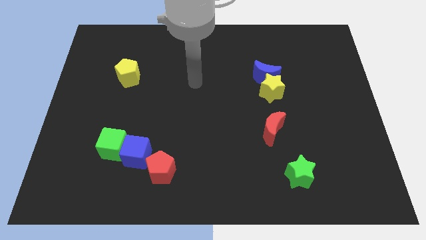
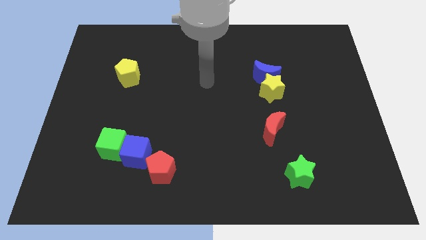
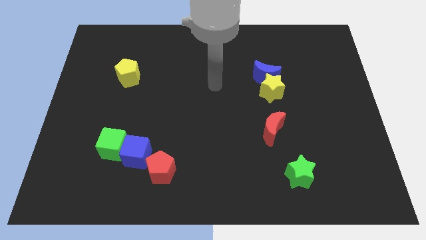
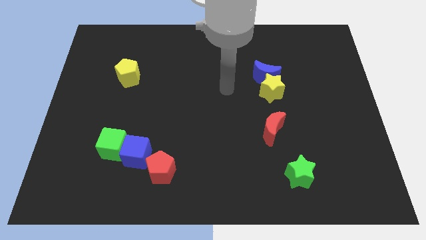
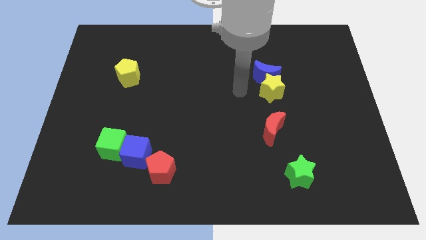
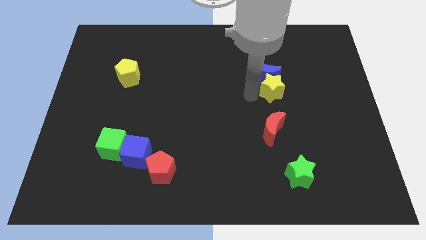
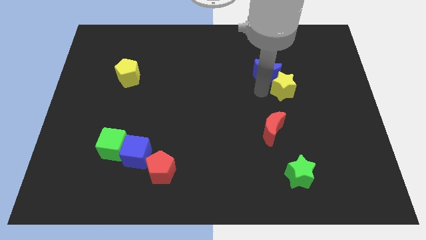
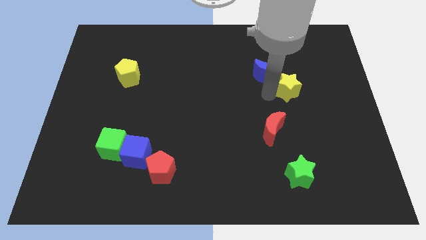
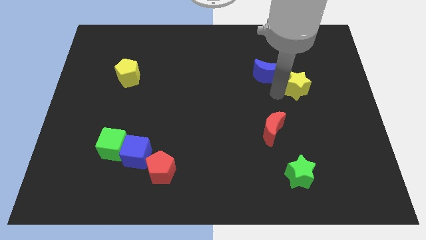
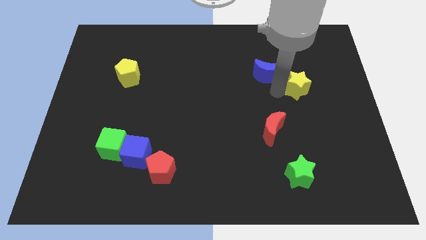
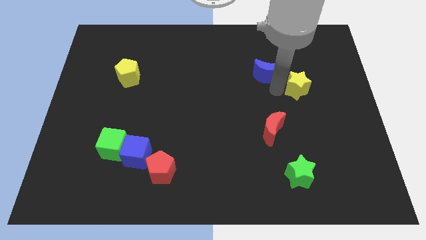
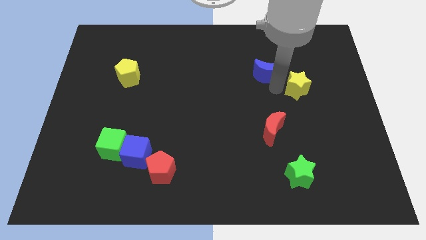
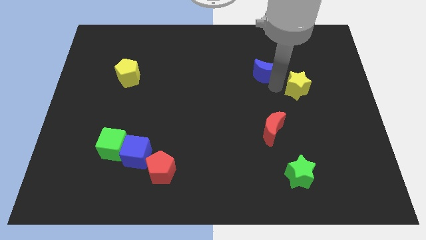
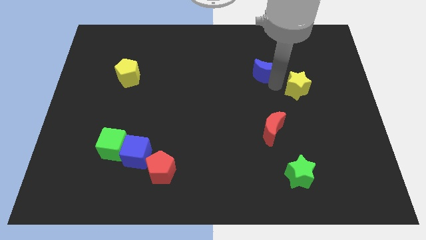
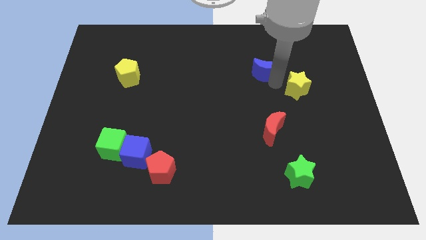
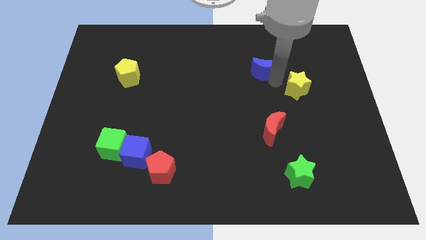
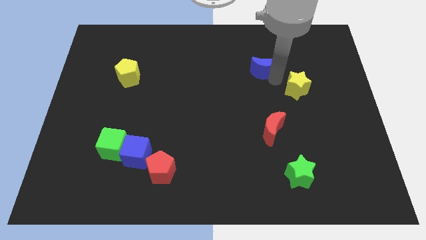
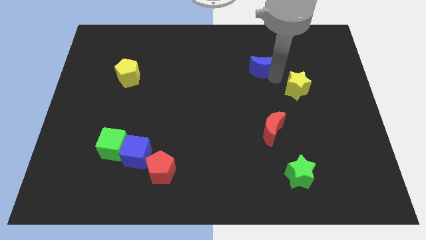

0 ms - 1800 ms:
pull the blue moon apart from the yellow star

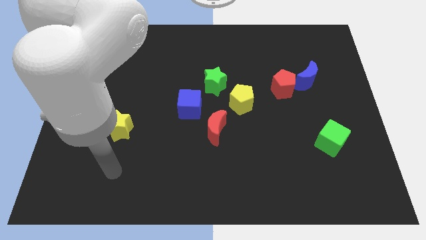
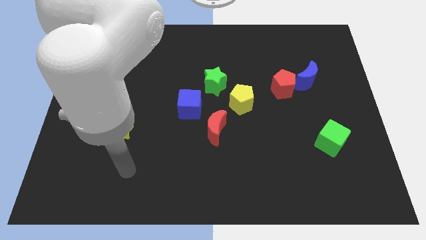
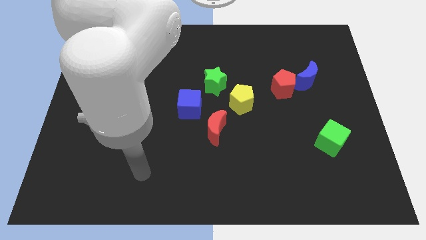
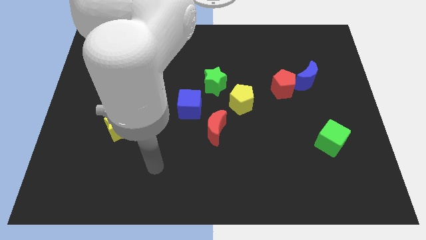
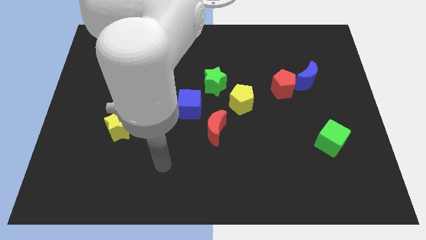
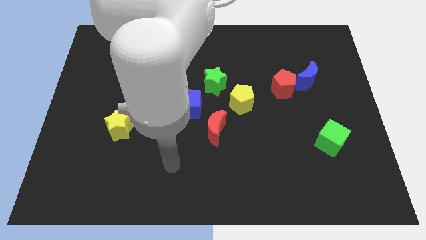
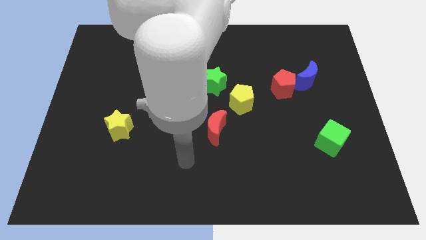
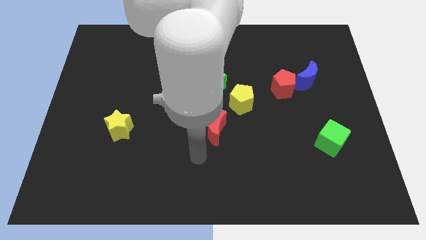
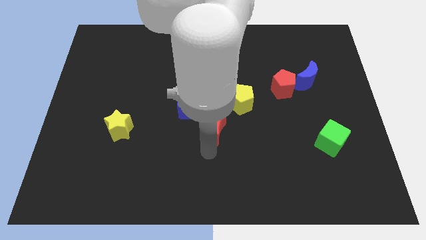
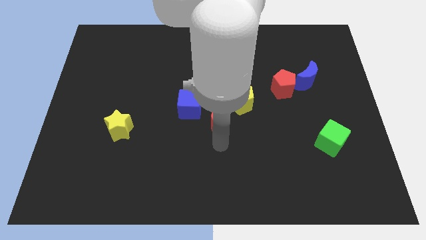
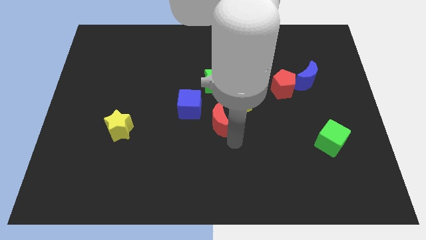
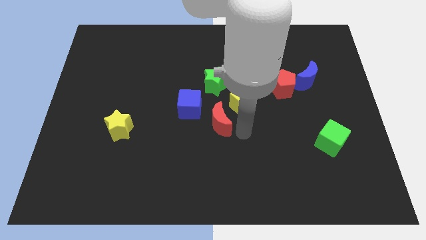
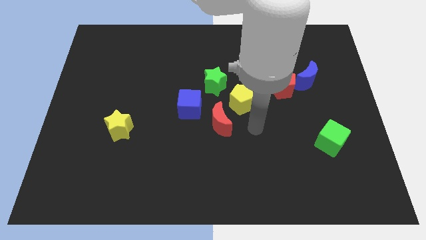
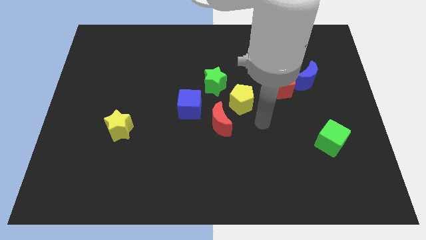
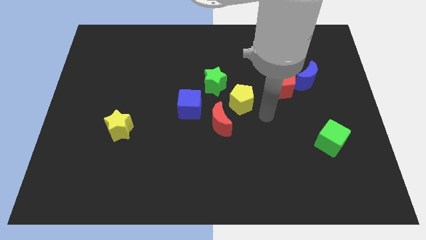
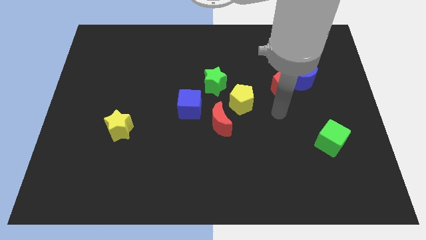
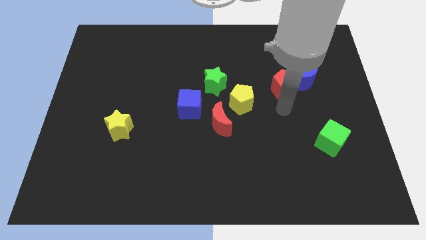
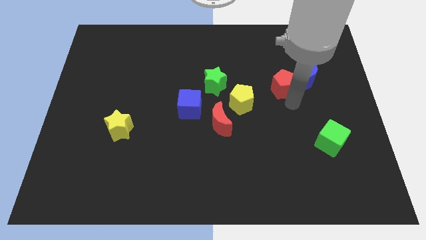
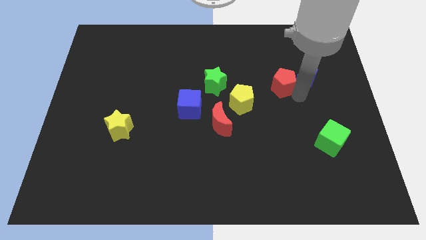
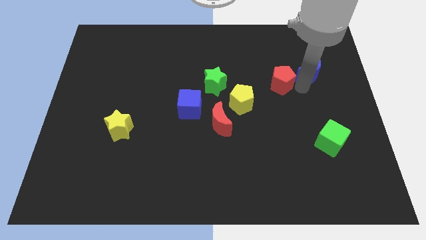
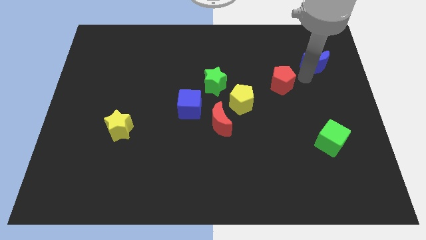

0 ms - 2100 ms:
separate the red pentagon from the blue moon

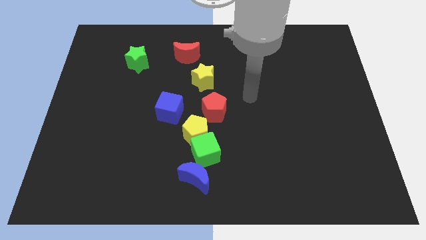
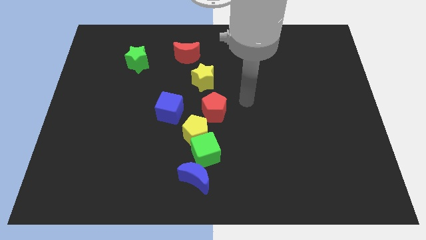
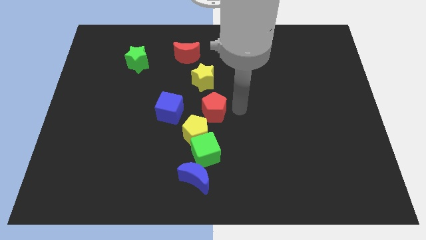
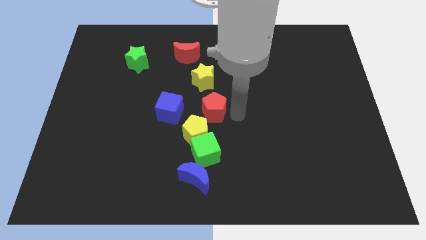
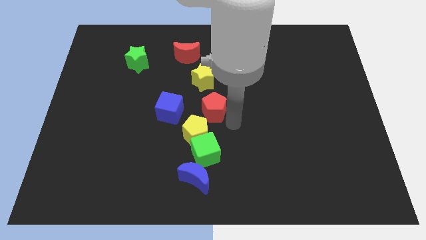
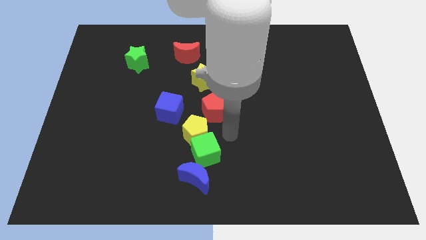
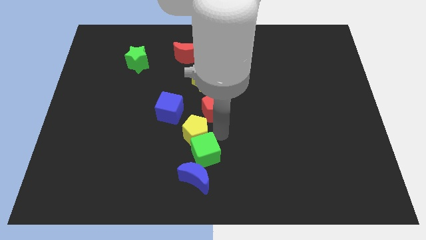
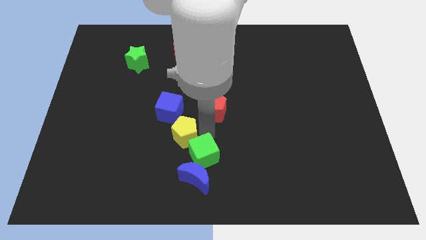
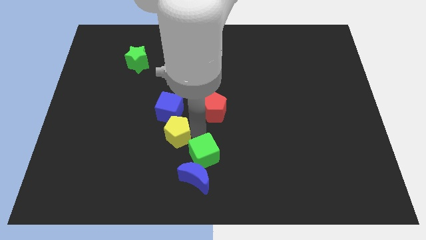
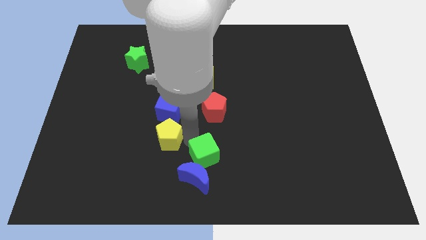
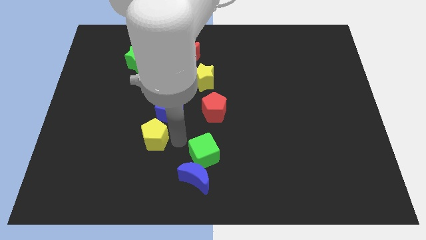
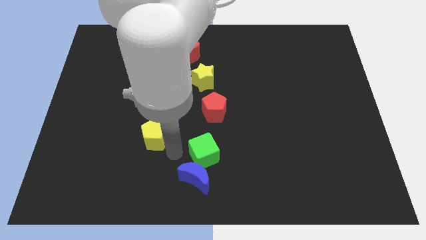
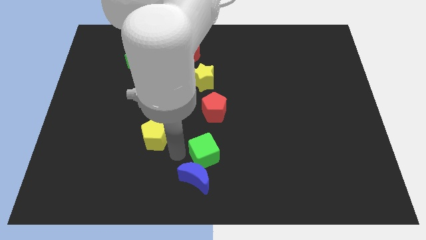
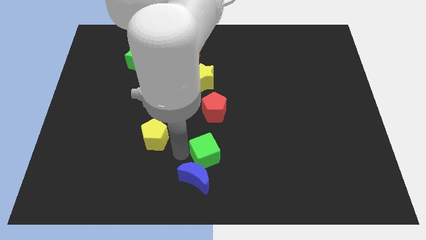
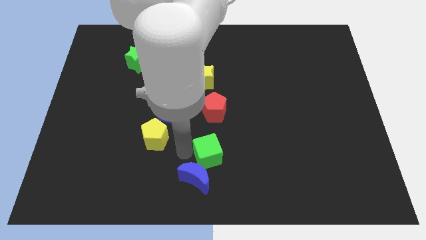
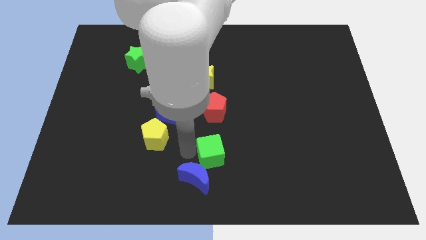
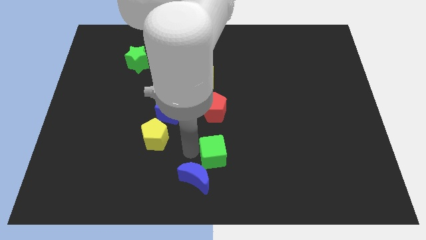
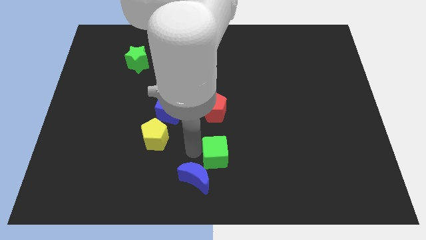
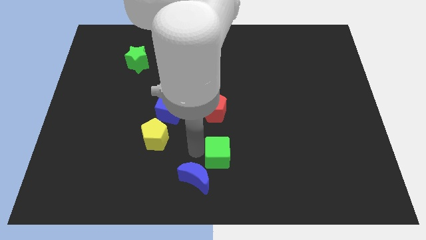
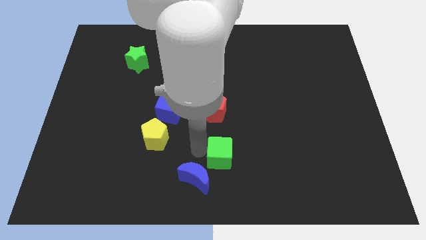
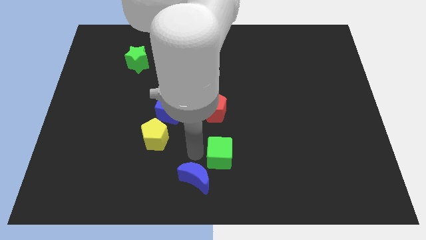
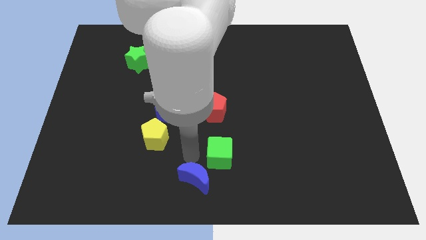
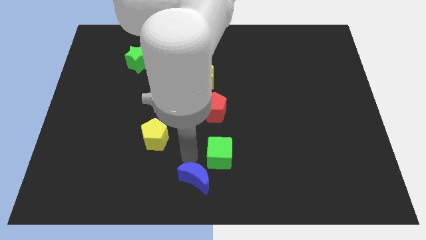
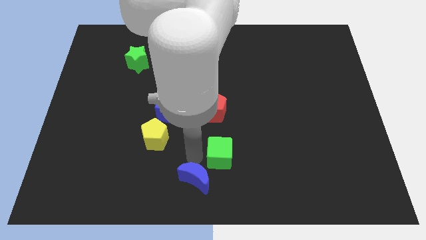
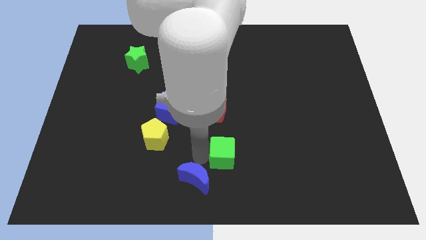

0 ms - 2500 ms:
separate the green cube from the yellow pentagon and blue moon

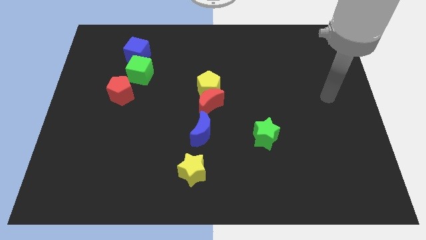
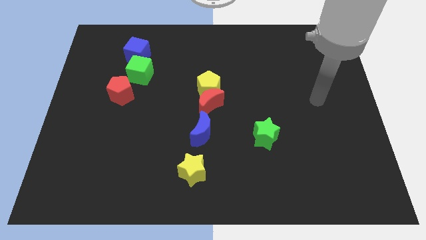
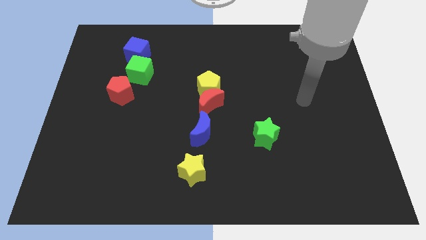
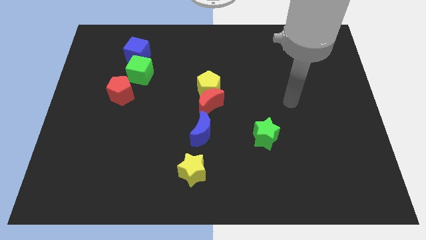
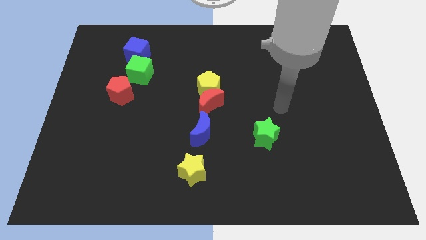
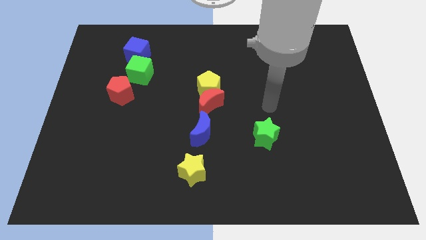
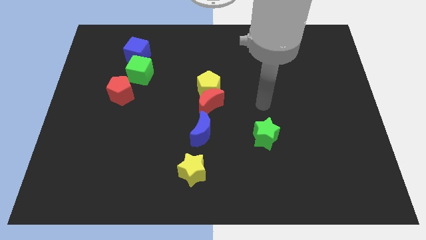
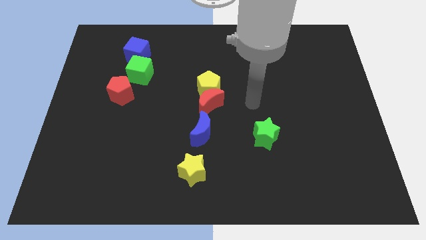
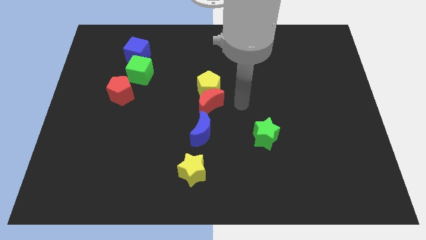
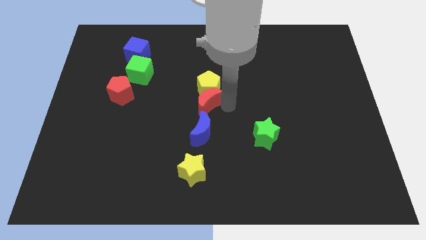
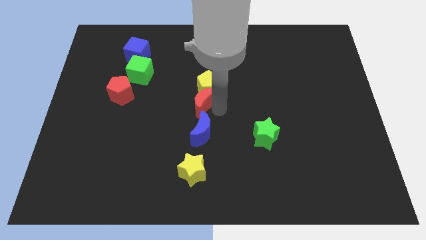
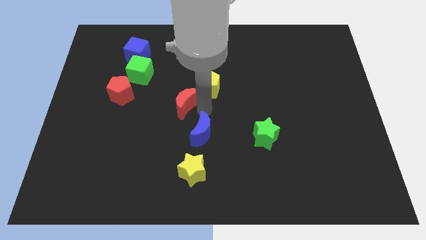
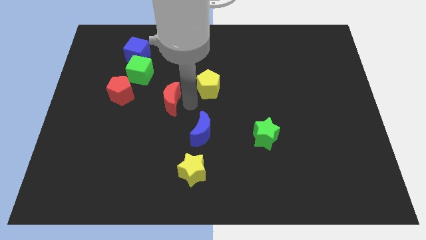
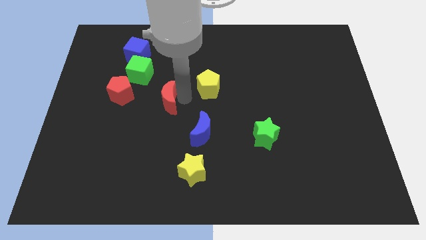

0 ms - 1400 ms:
pull the yellow pentagon apart from the red moon

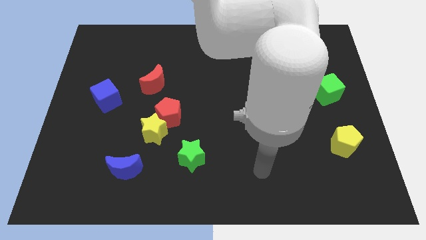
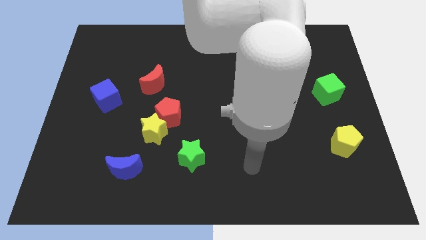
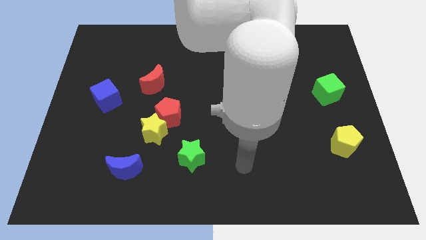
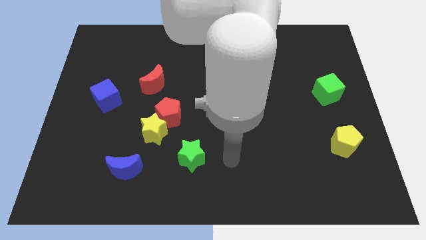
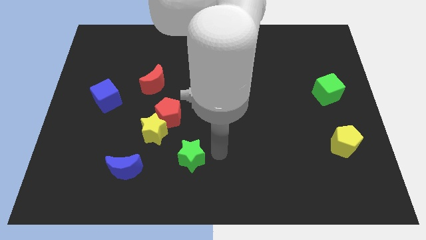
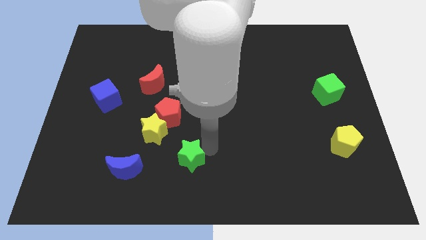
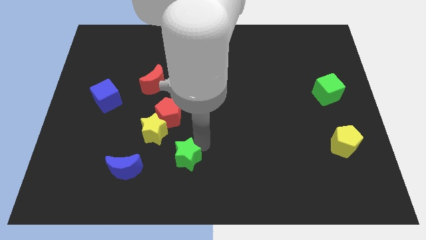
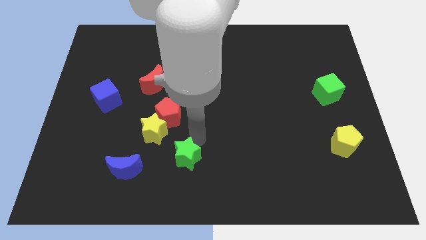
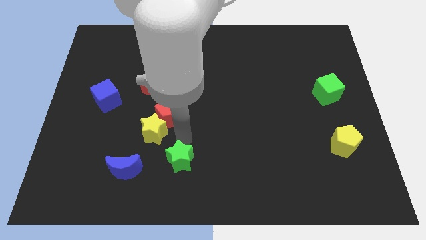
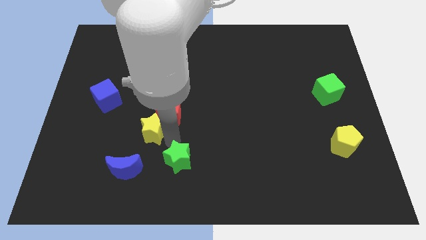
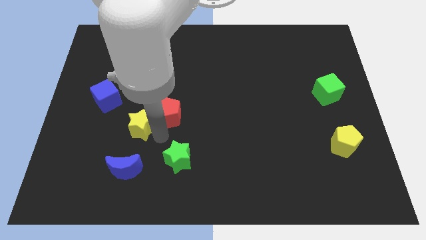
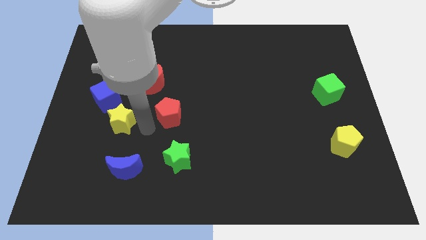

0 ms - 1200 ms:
pull the red pentagon apart from the yellow star

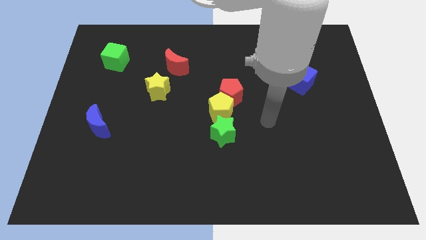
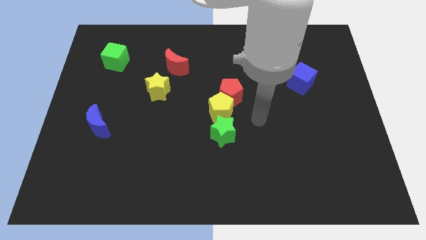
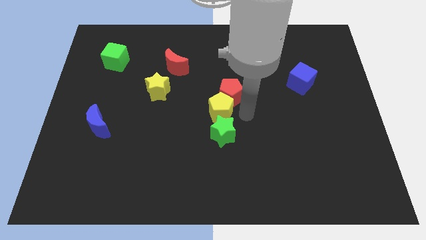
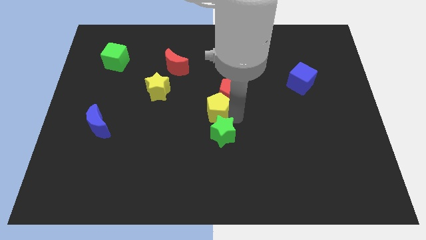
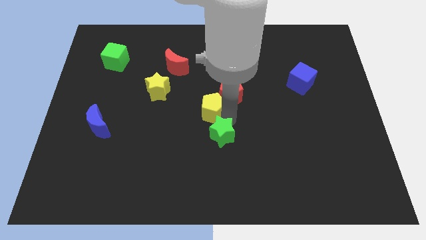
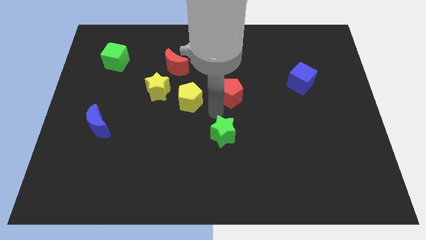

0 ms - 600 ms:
separate the red pentagon from the yellow pentagon
